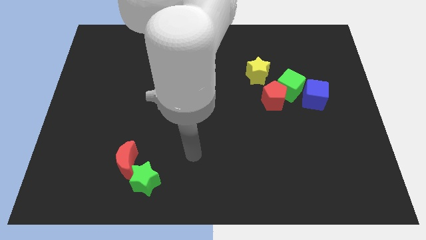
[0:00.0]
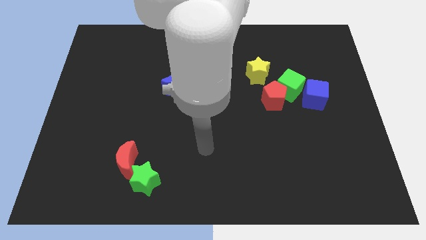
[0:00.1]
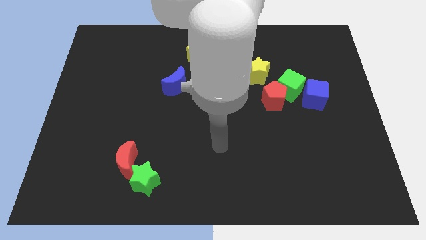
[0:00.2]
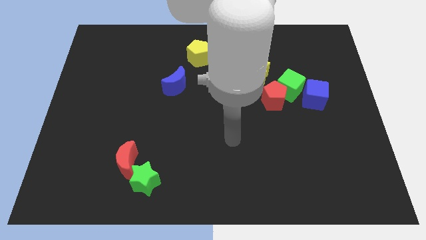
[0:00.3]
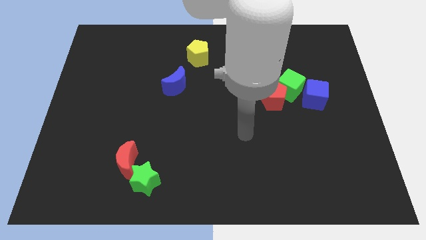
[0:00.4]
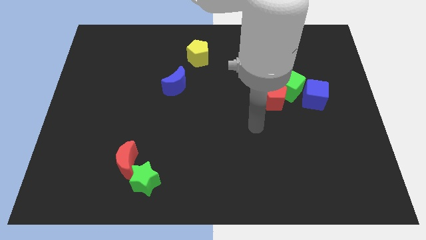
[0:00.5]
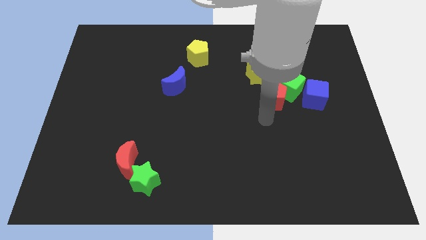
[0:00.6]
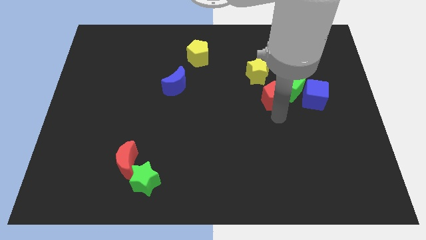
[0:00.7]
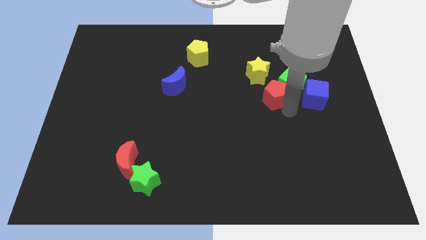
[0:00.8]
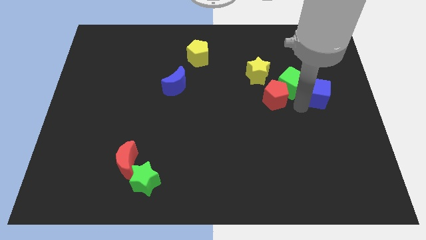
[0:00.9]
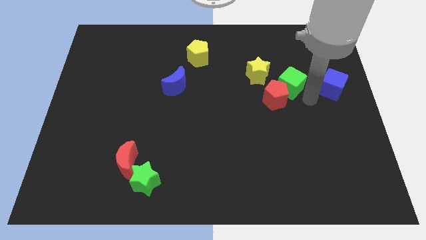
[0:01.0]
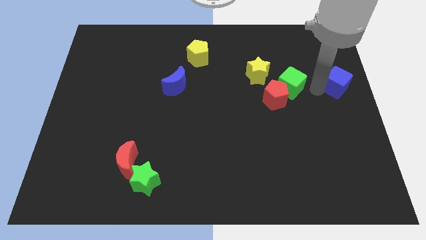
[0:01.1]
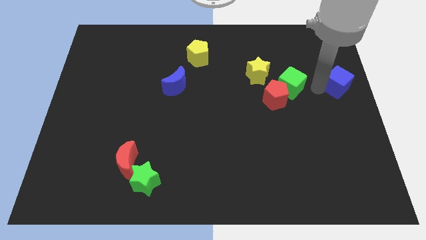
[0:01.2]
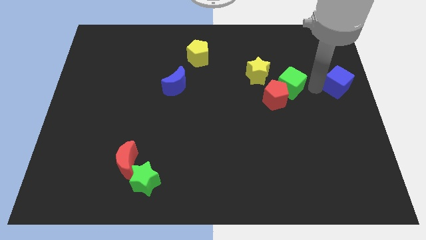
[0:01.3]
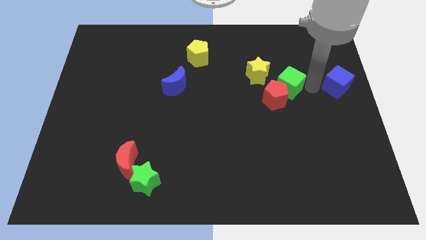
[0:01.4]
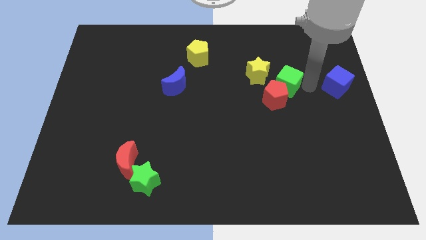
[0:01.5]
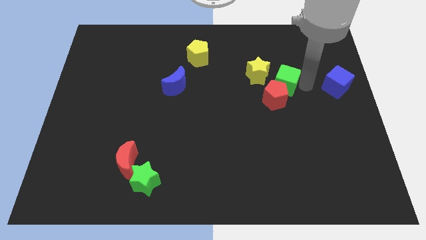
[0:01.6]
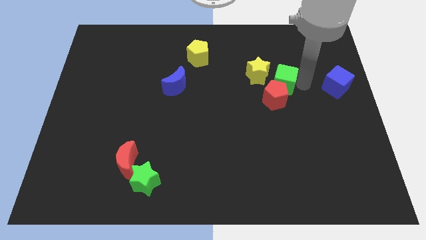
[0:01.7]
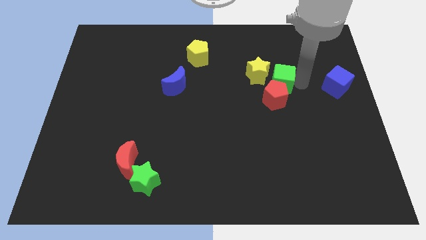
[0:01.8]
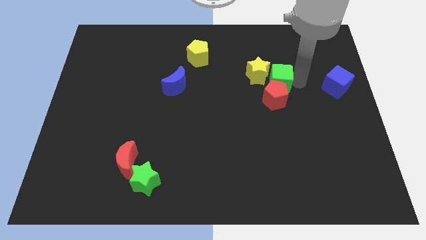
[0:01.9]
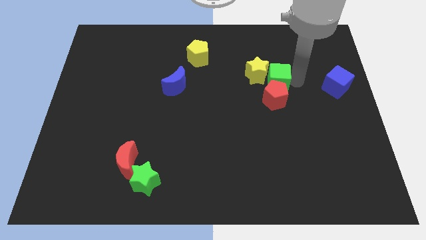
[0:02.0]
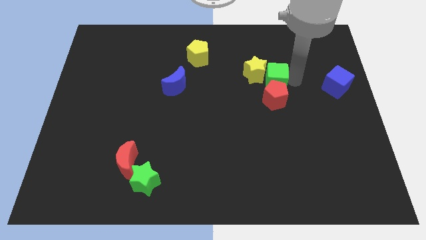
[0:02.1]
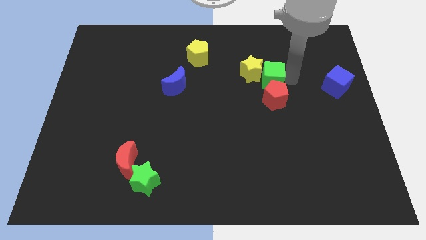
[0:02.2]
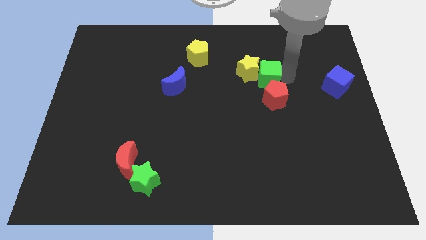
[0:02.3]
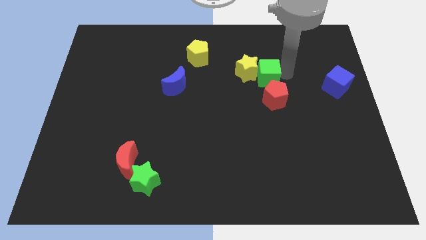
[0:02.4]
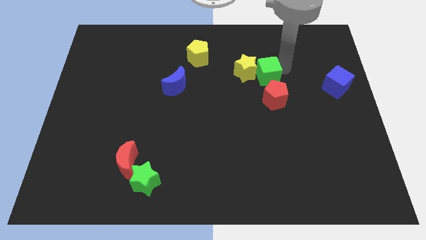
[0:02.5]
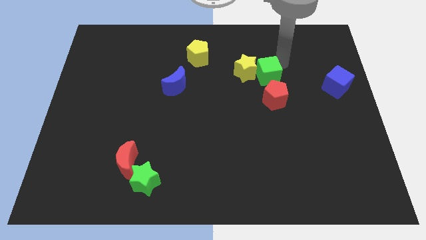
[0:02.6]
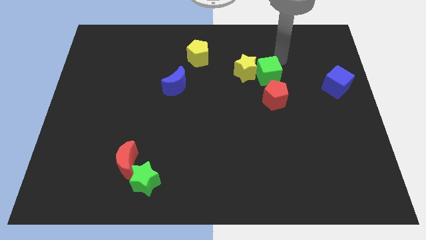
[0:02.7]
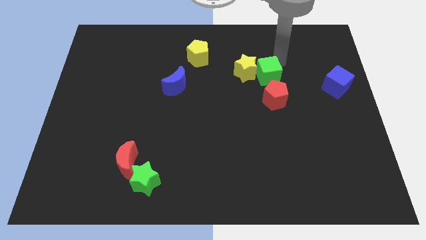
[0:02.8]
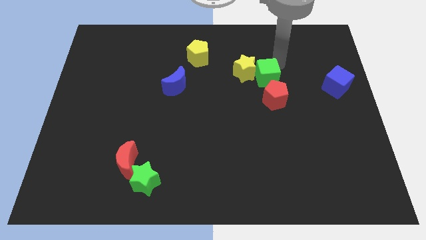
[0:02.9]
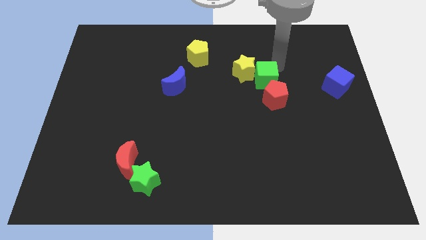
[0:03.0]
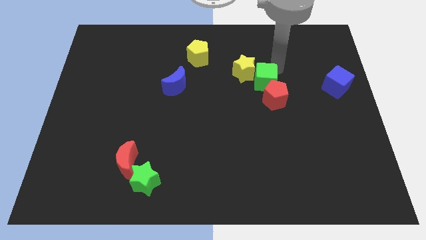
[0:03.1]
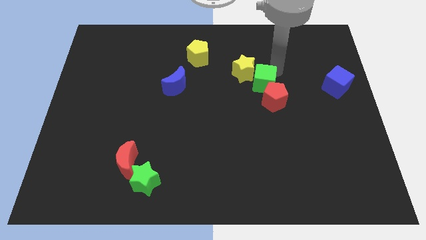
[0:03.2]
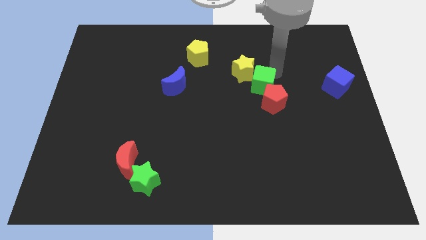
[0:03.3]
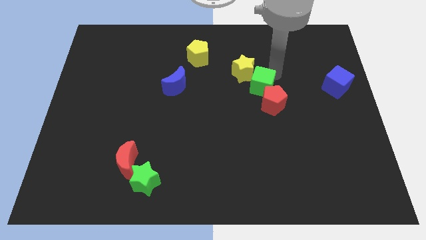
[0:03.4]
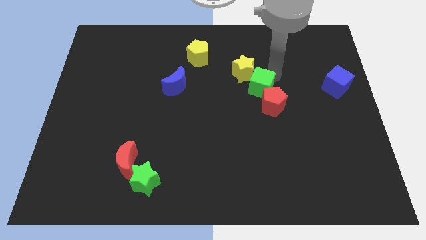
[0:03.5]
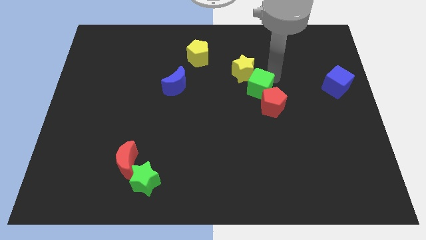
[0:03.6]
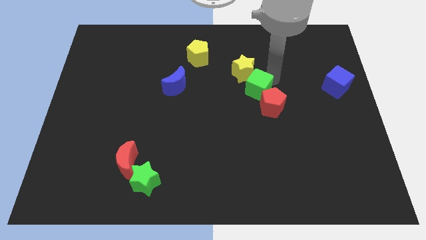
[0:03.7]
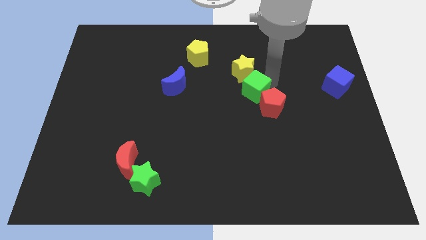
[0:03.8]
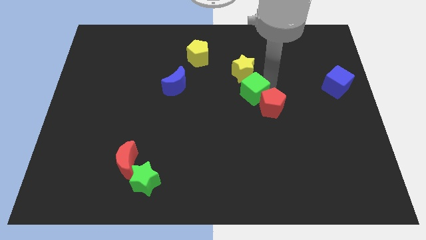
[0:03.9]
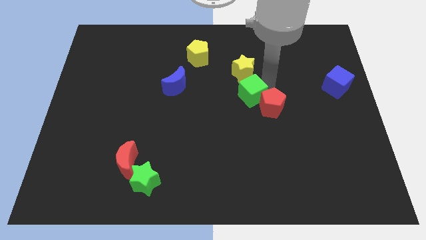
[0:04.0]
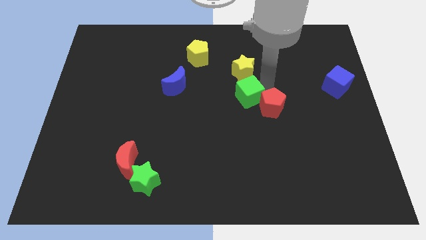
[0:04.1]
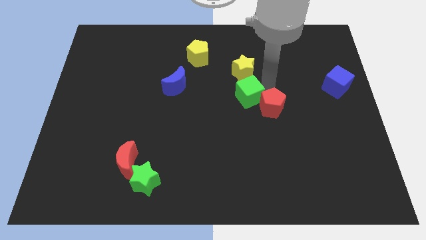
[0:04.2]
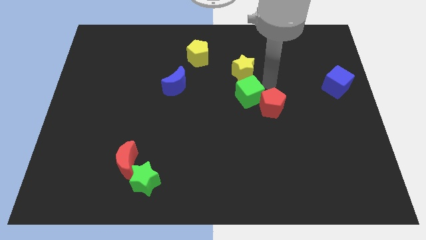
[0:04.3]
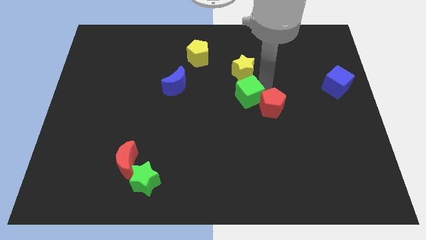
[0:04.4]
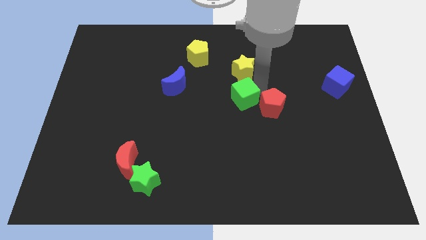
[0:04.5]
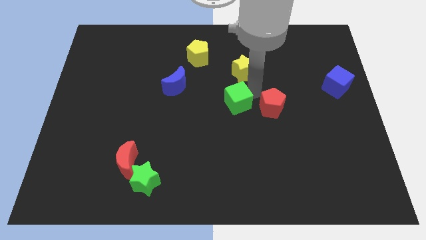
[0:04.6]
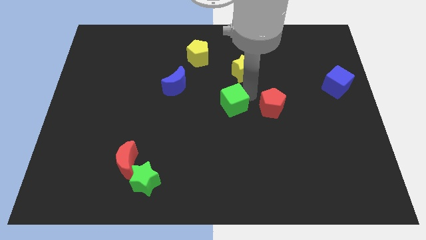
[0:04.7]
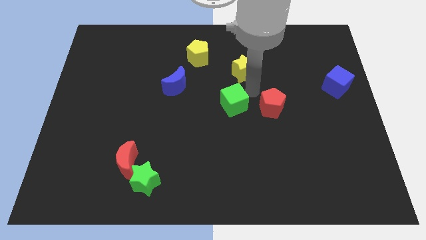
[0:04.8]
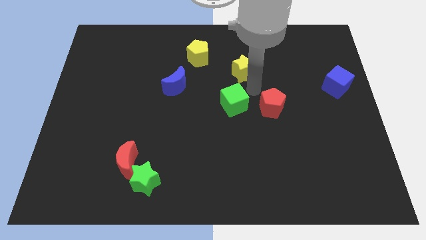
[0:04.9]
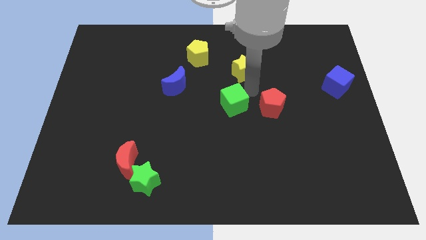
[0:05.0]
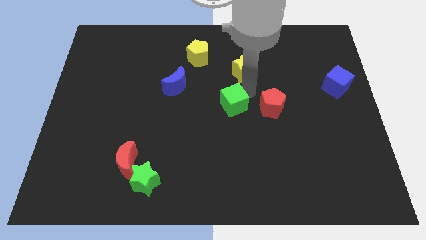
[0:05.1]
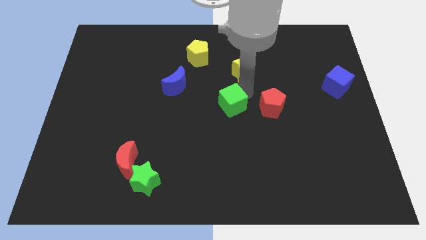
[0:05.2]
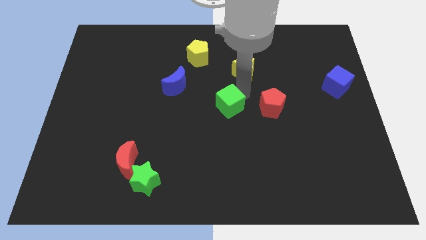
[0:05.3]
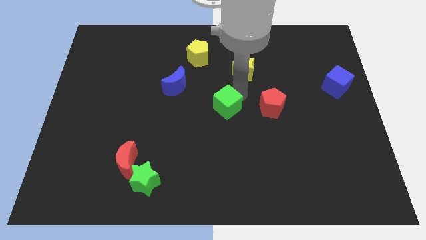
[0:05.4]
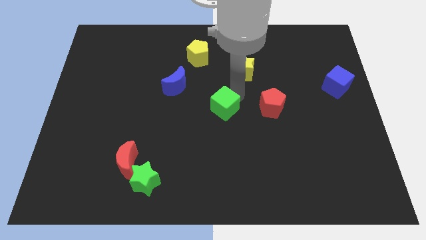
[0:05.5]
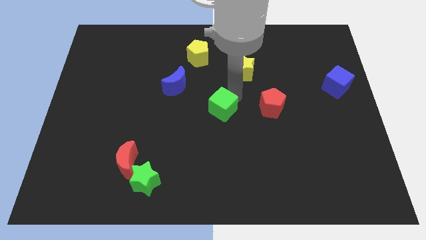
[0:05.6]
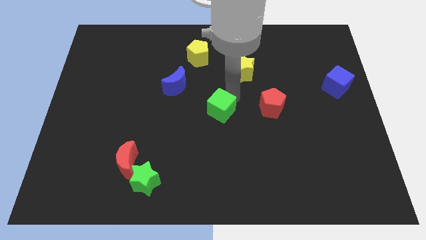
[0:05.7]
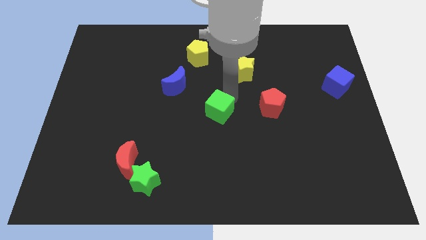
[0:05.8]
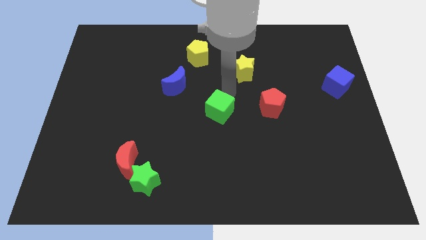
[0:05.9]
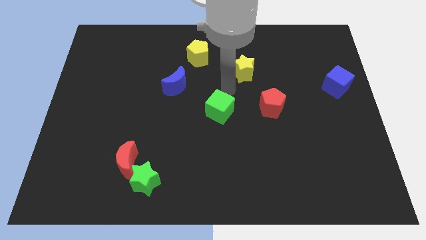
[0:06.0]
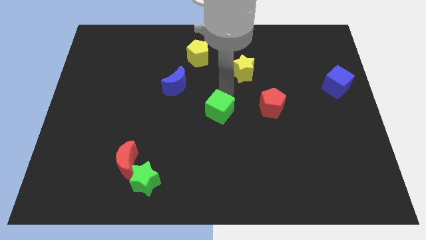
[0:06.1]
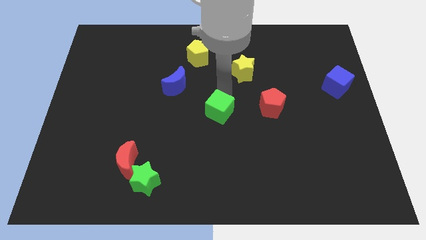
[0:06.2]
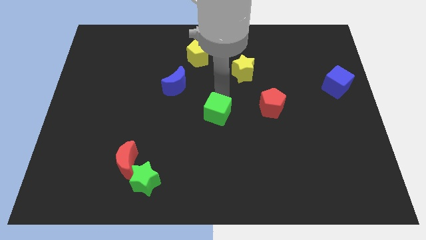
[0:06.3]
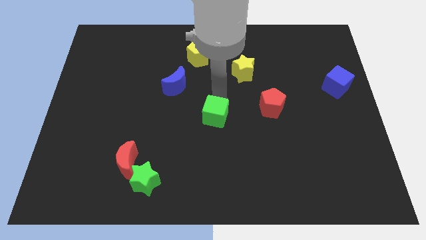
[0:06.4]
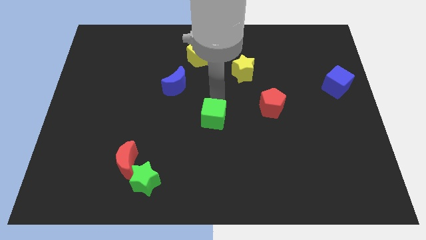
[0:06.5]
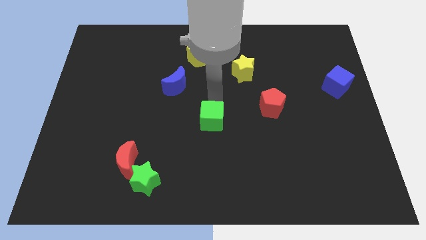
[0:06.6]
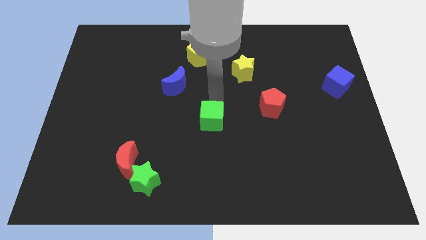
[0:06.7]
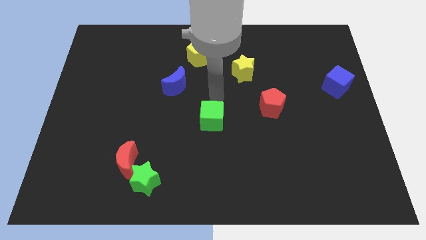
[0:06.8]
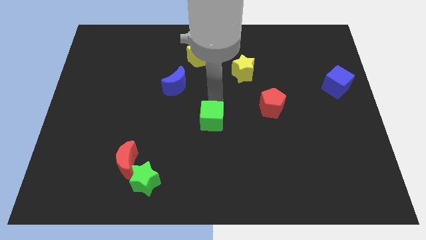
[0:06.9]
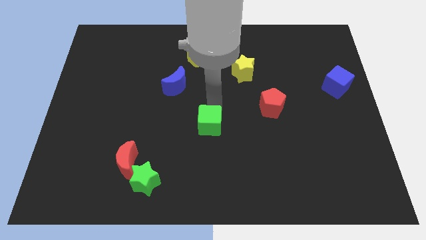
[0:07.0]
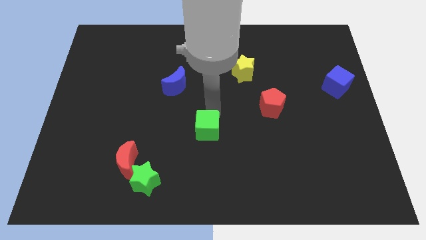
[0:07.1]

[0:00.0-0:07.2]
push the green cube downwards and to the left

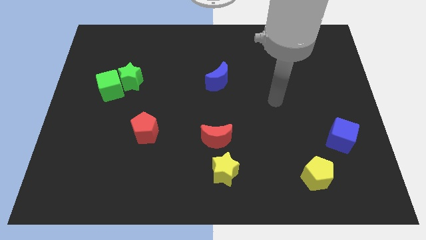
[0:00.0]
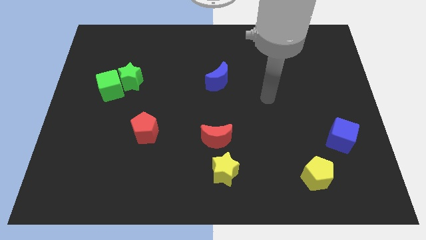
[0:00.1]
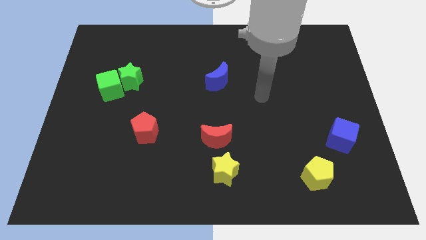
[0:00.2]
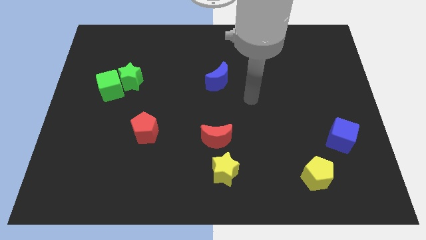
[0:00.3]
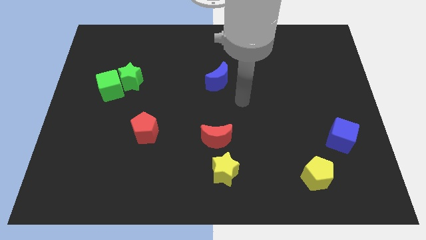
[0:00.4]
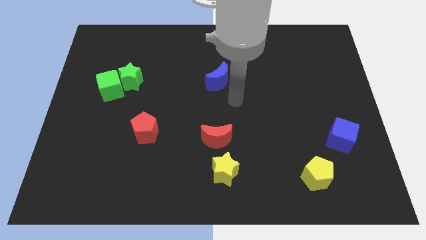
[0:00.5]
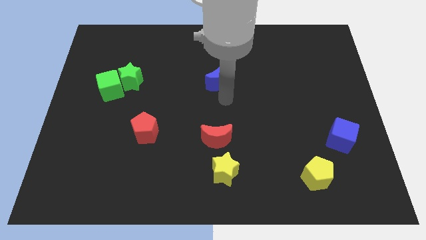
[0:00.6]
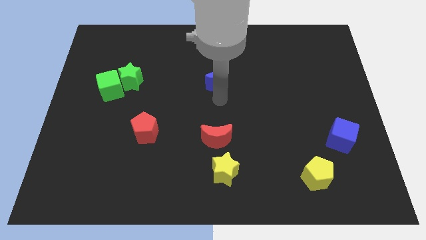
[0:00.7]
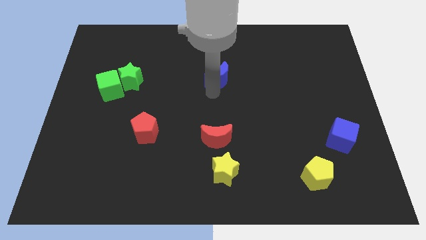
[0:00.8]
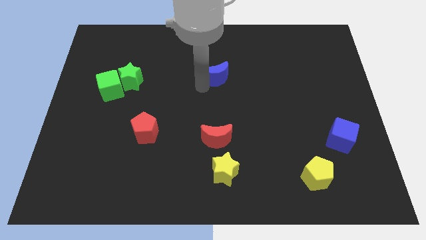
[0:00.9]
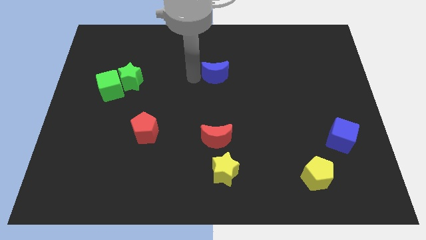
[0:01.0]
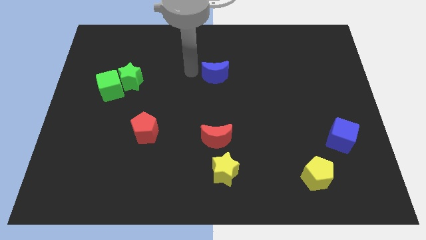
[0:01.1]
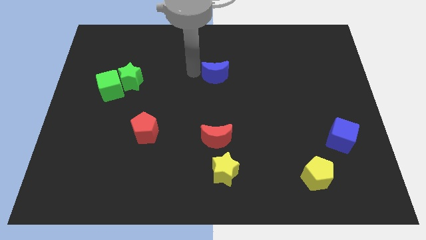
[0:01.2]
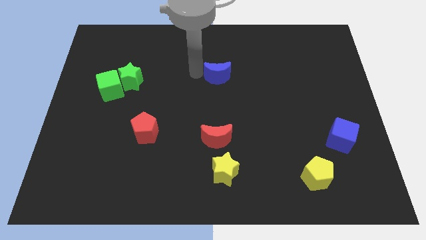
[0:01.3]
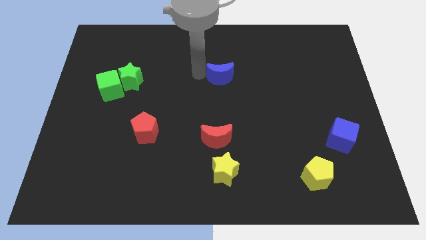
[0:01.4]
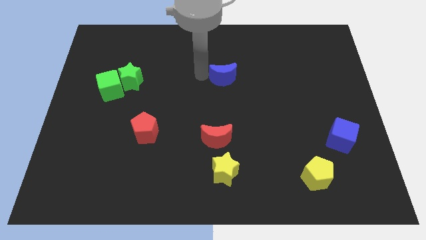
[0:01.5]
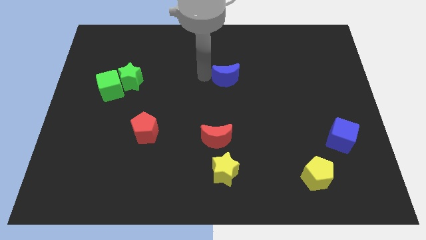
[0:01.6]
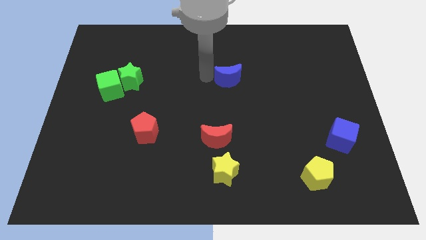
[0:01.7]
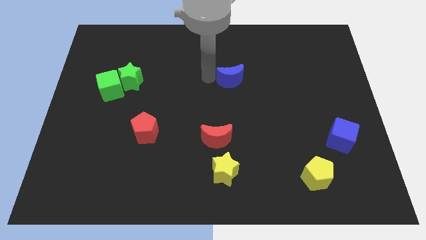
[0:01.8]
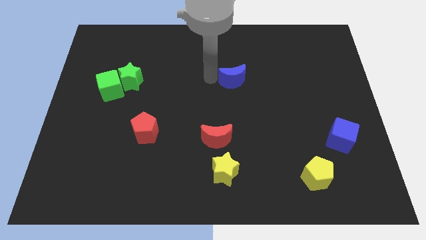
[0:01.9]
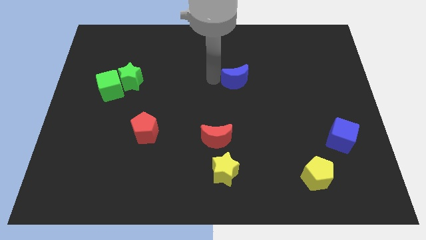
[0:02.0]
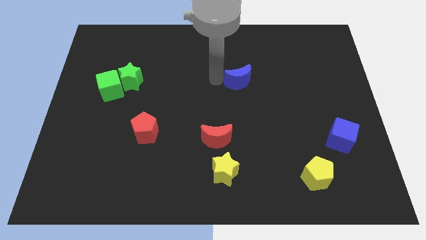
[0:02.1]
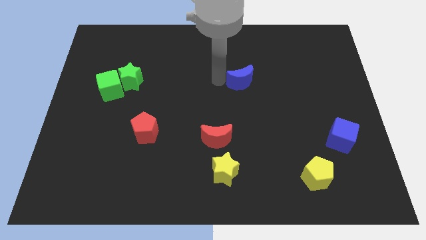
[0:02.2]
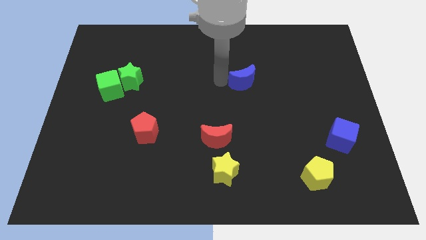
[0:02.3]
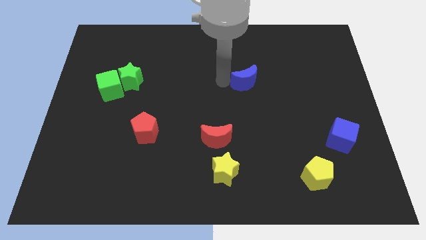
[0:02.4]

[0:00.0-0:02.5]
move the blue moon slightly to the right
